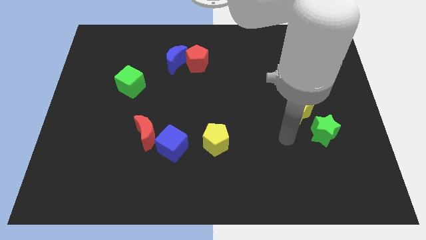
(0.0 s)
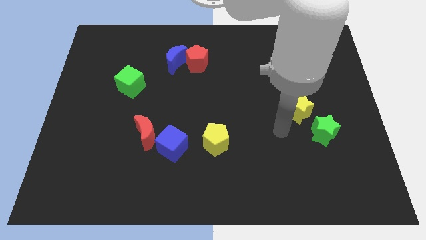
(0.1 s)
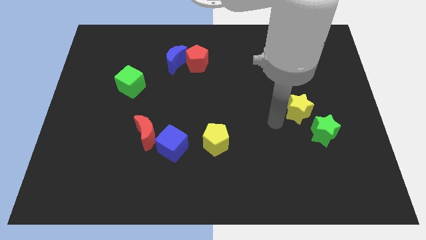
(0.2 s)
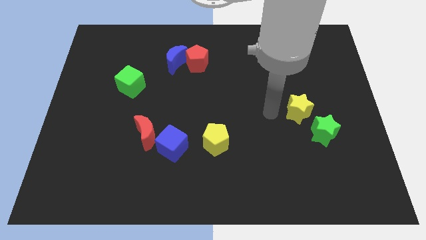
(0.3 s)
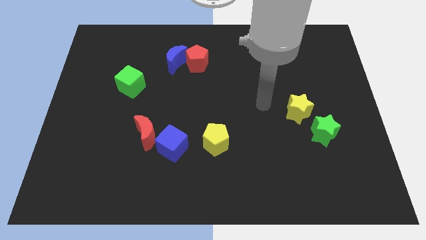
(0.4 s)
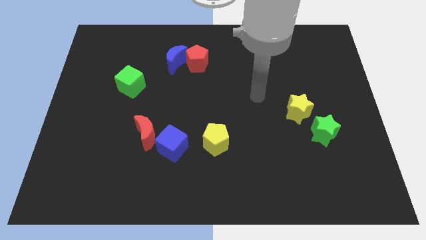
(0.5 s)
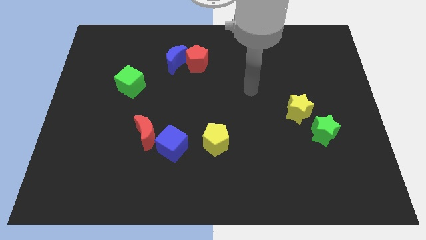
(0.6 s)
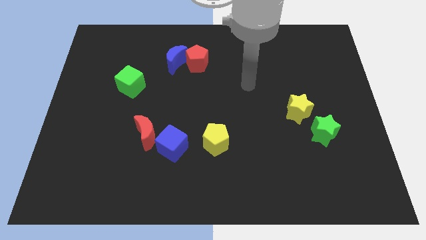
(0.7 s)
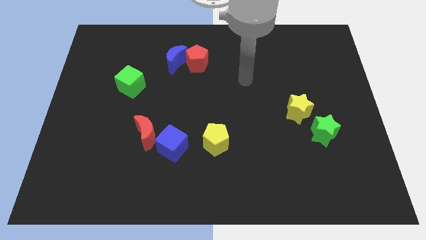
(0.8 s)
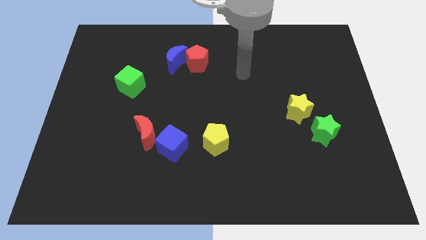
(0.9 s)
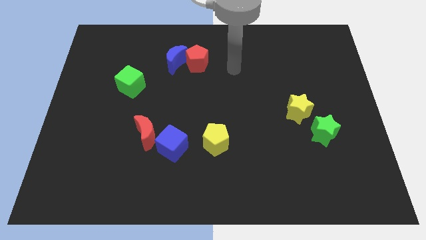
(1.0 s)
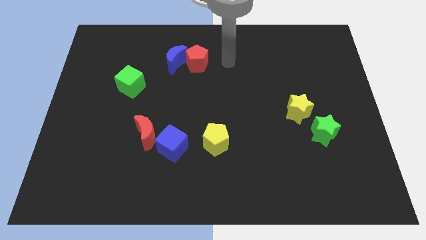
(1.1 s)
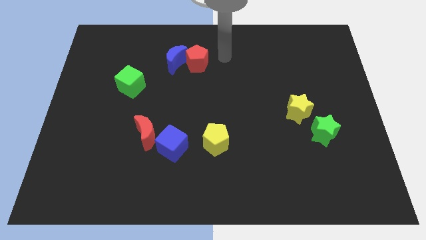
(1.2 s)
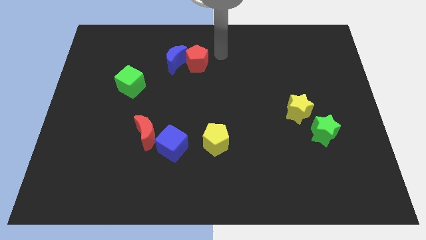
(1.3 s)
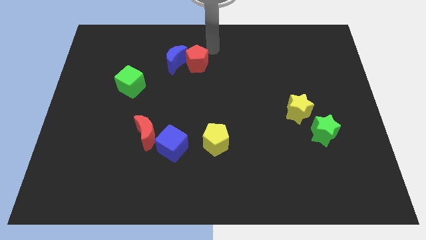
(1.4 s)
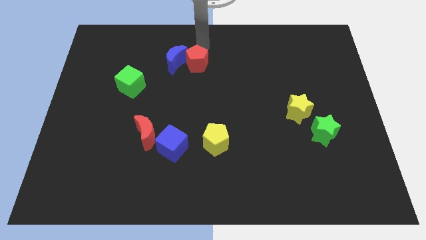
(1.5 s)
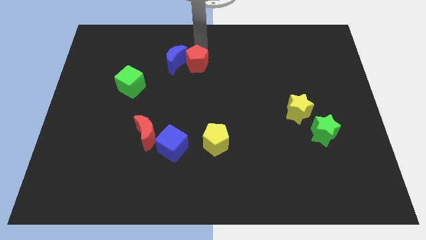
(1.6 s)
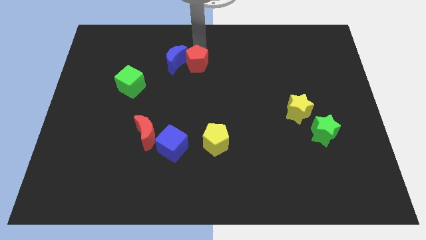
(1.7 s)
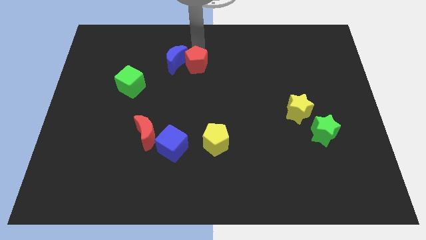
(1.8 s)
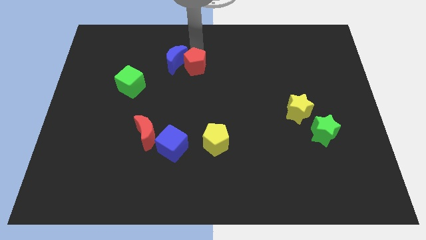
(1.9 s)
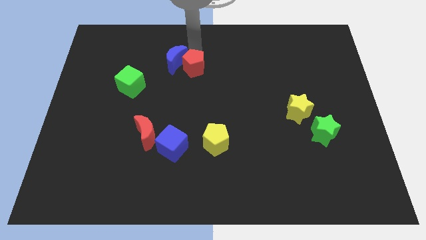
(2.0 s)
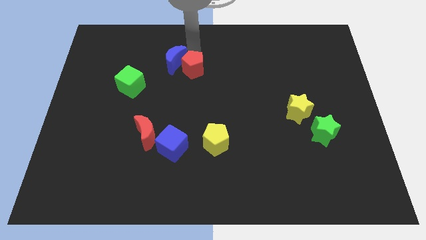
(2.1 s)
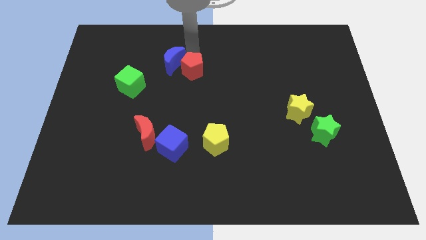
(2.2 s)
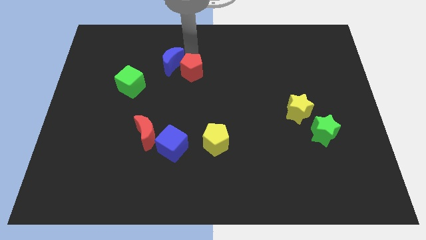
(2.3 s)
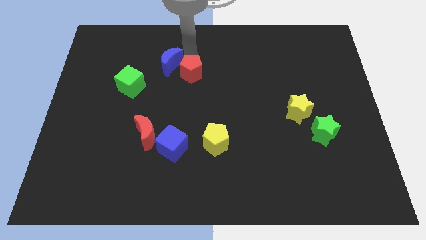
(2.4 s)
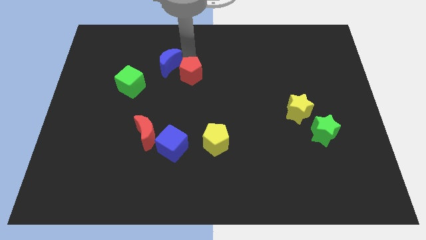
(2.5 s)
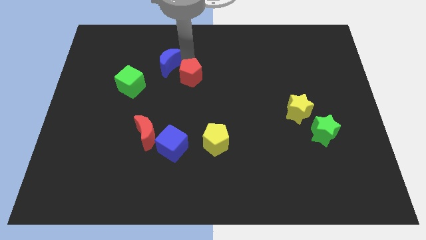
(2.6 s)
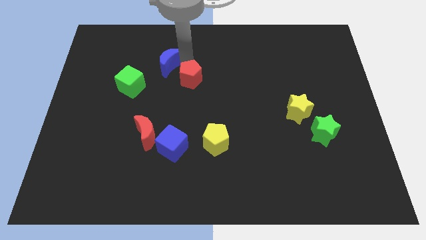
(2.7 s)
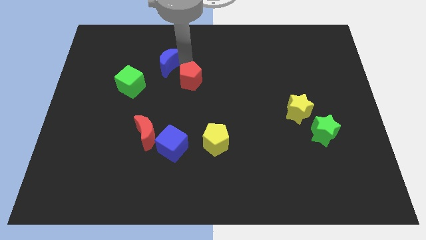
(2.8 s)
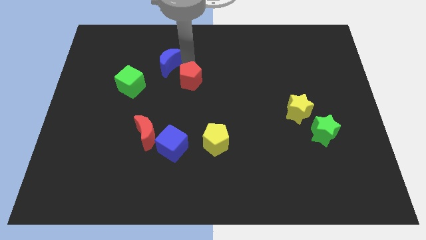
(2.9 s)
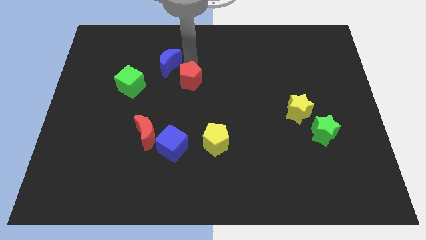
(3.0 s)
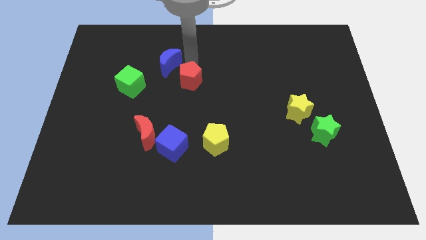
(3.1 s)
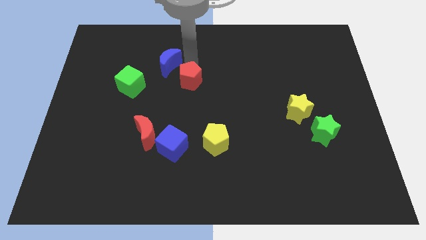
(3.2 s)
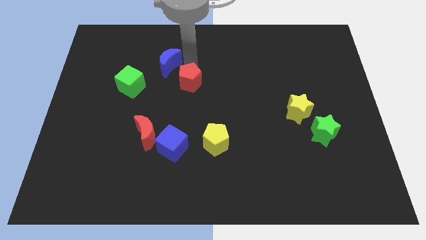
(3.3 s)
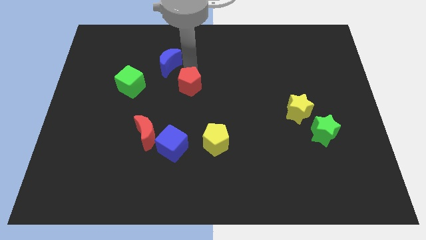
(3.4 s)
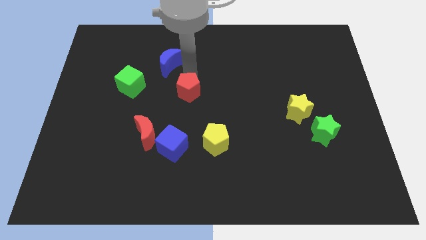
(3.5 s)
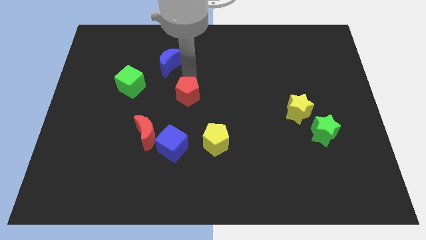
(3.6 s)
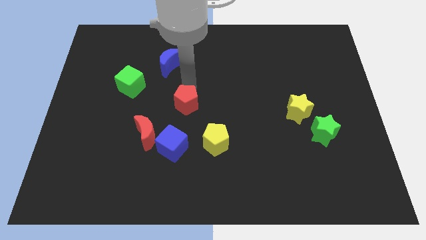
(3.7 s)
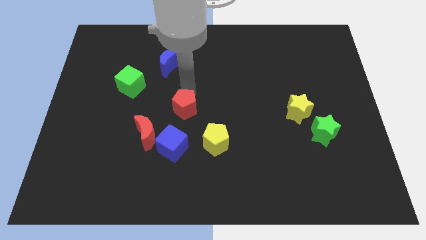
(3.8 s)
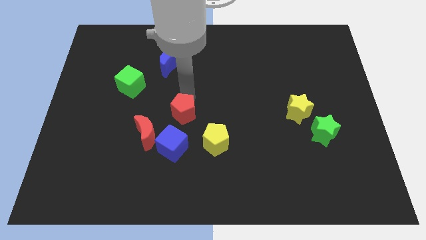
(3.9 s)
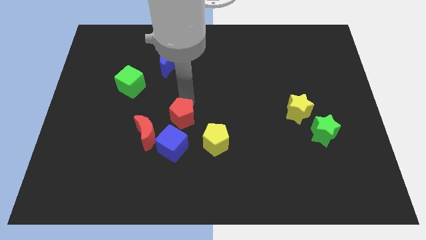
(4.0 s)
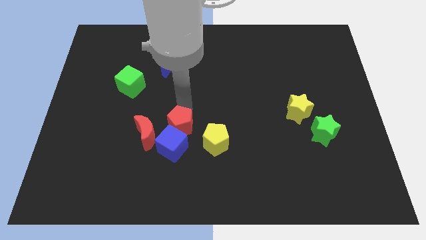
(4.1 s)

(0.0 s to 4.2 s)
put the red pentagon to the blue cube

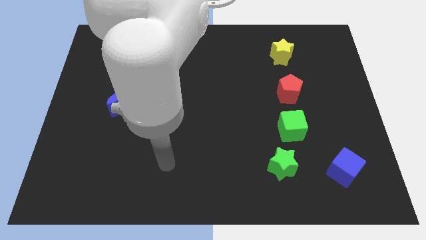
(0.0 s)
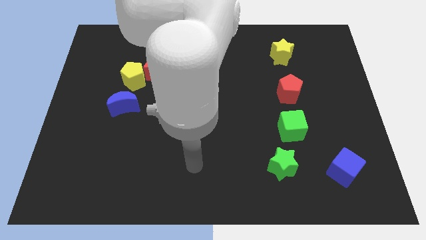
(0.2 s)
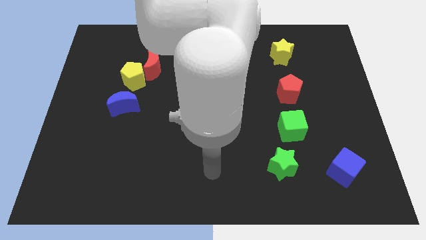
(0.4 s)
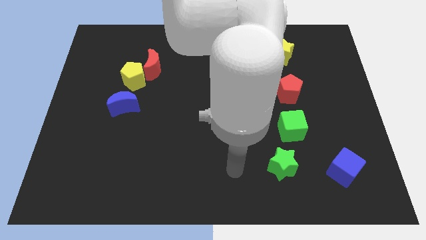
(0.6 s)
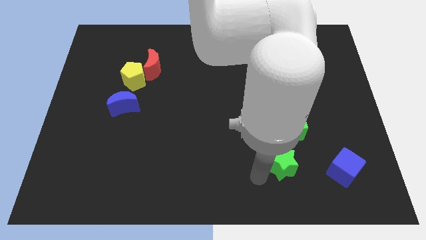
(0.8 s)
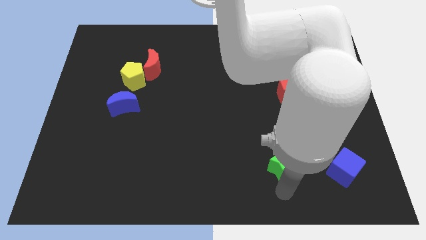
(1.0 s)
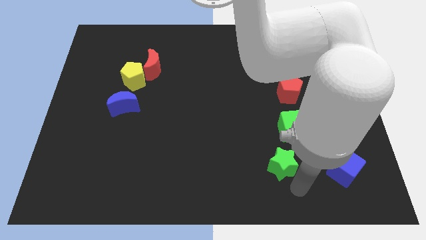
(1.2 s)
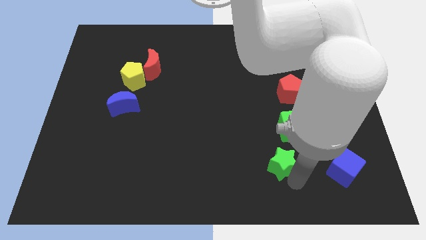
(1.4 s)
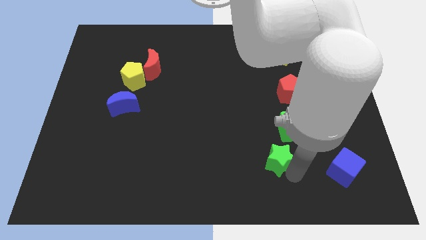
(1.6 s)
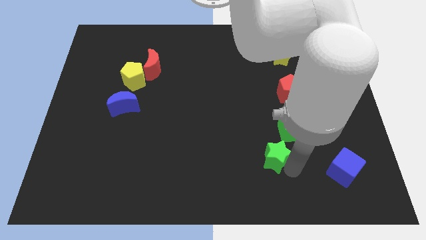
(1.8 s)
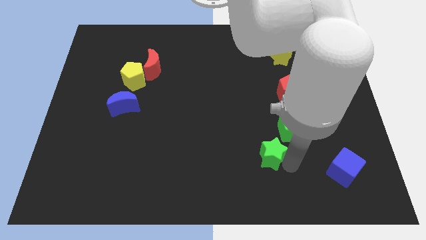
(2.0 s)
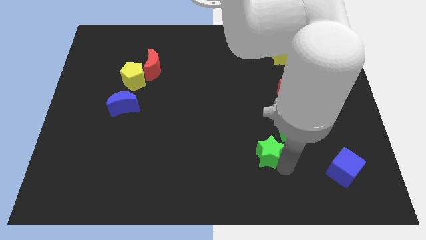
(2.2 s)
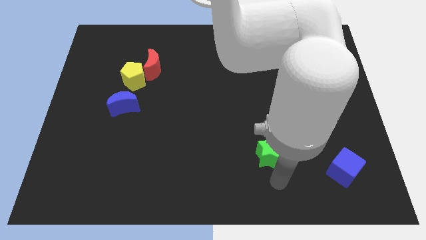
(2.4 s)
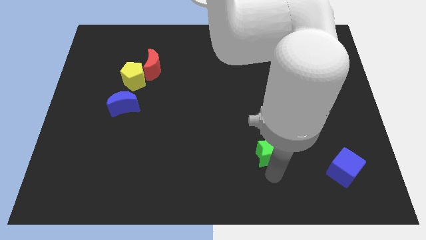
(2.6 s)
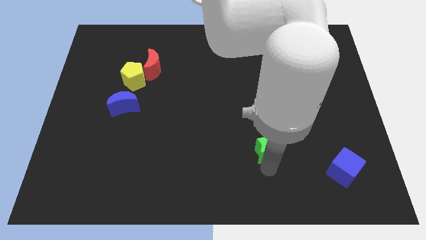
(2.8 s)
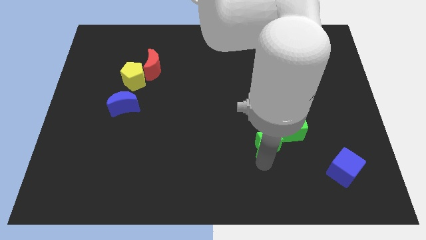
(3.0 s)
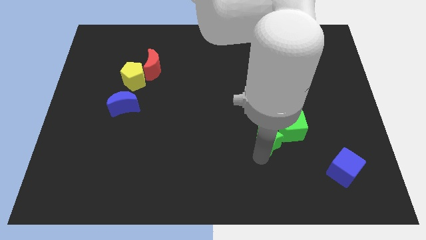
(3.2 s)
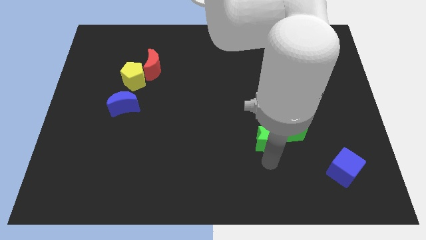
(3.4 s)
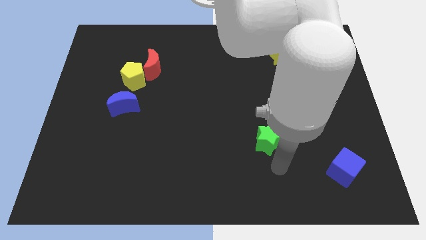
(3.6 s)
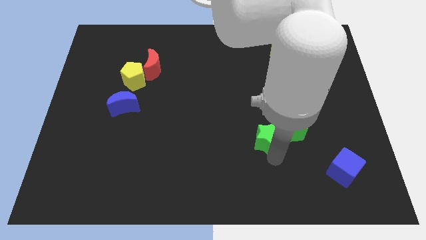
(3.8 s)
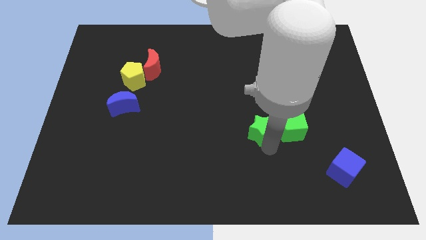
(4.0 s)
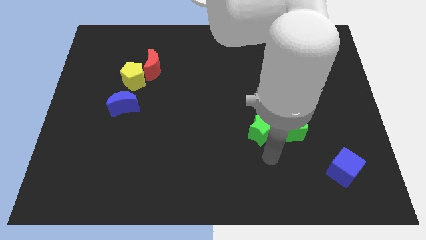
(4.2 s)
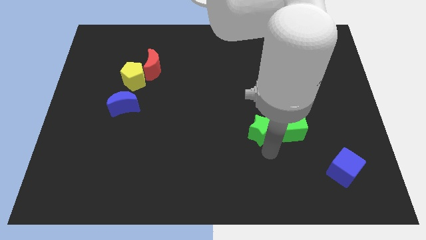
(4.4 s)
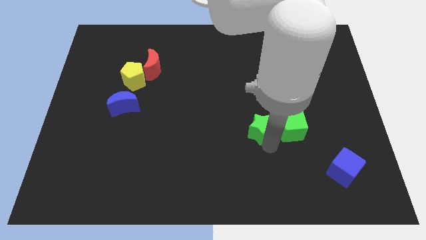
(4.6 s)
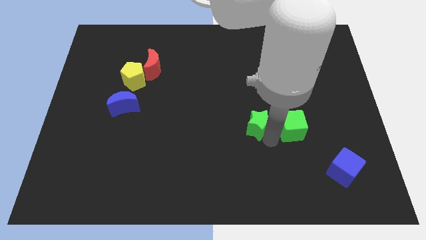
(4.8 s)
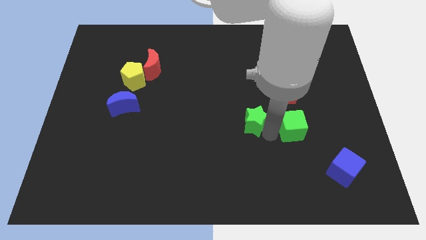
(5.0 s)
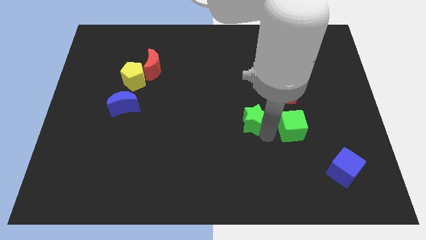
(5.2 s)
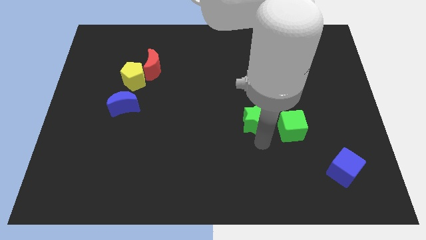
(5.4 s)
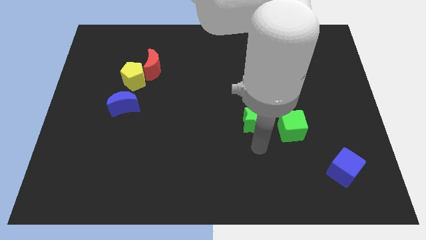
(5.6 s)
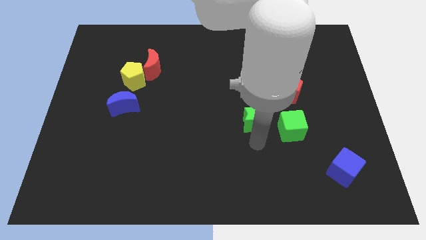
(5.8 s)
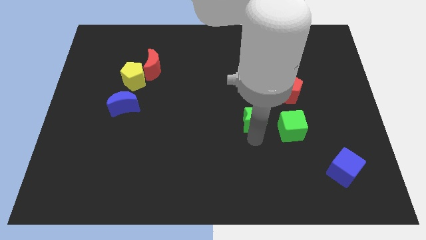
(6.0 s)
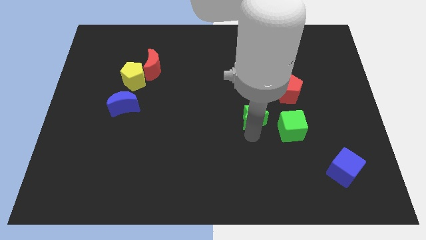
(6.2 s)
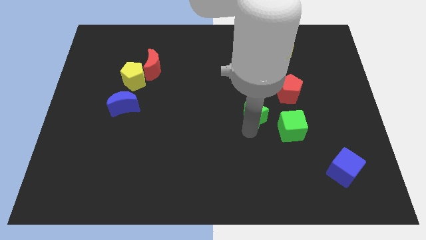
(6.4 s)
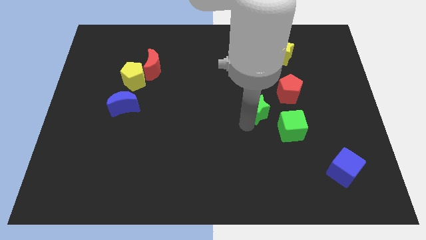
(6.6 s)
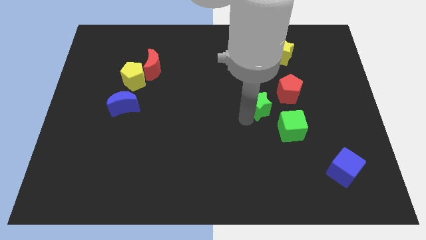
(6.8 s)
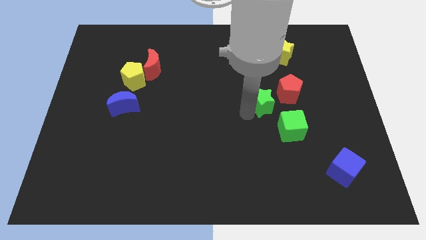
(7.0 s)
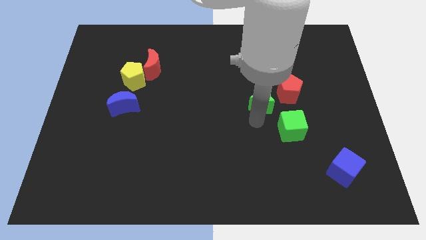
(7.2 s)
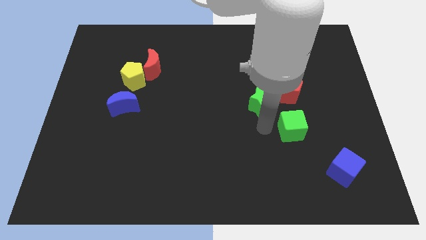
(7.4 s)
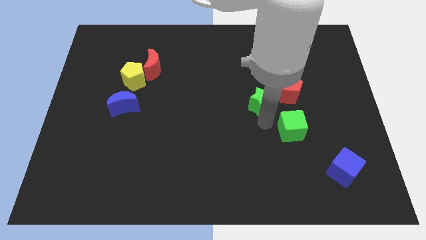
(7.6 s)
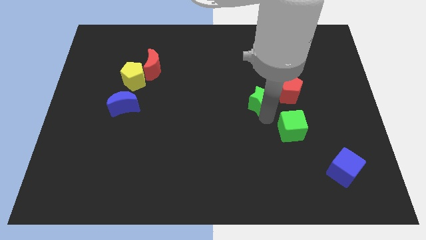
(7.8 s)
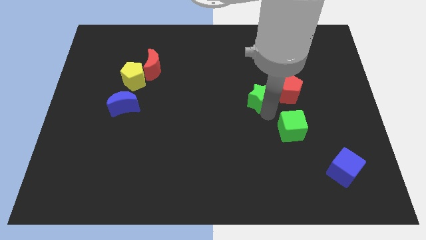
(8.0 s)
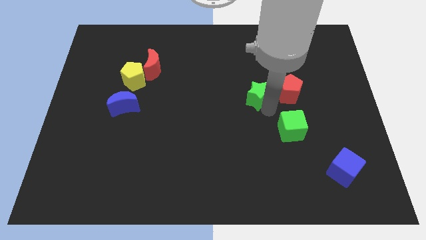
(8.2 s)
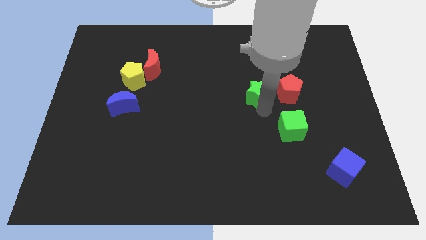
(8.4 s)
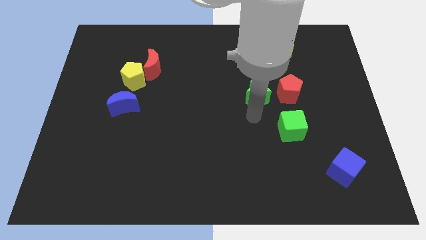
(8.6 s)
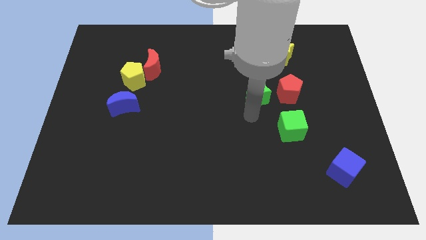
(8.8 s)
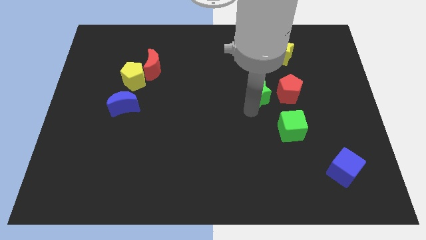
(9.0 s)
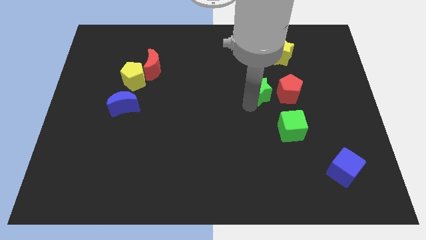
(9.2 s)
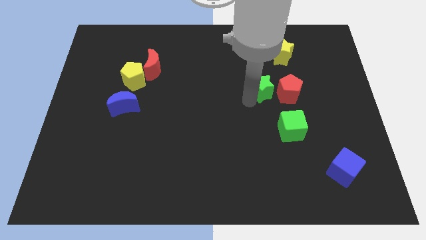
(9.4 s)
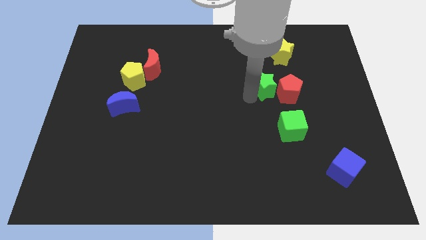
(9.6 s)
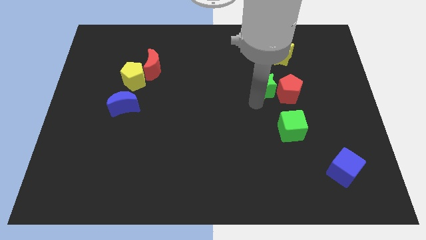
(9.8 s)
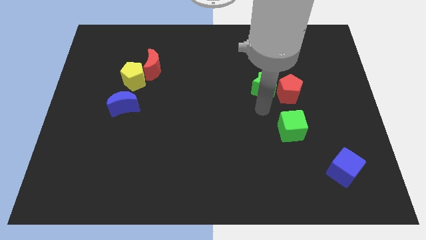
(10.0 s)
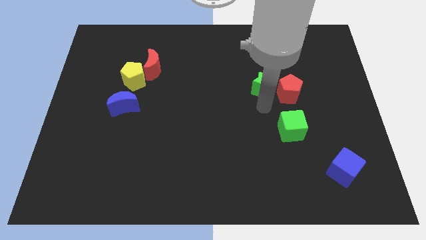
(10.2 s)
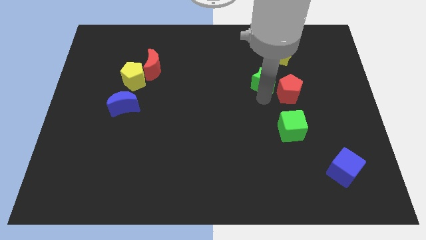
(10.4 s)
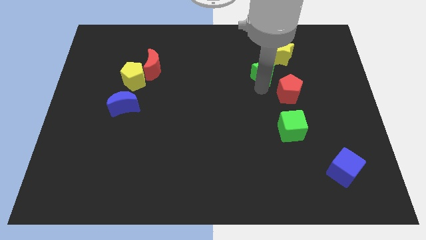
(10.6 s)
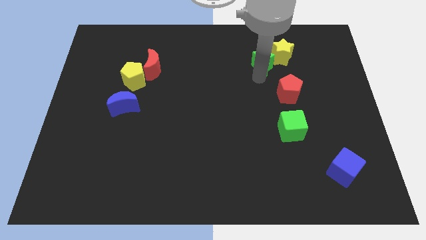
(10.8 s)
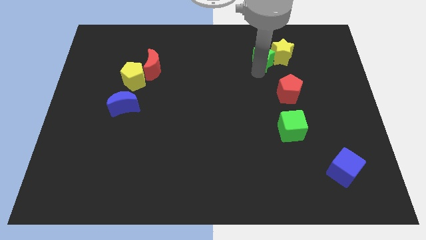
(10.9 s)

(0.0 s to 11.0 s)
move the green star towards the yellow star
